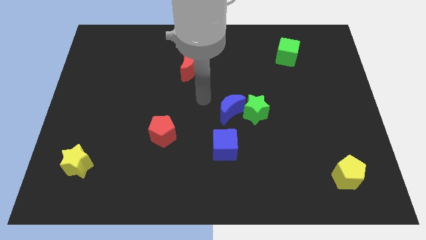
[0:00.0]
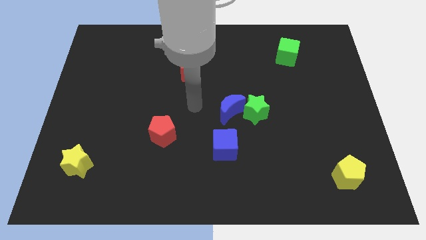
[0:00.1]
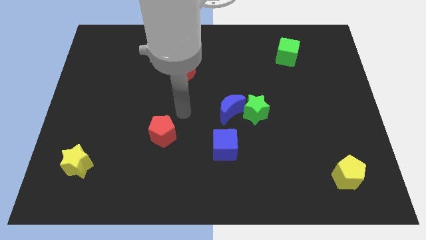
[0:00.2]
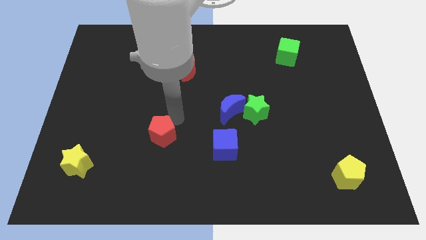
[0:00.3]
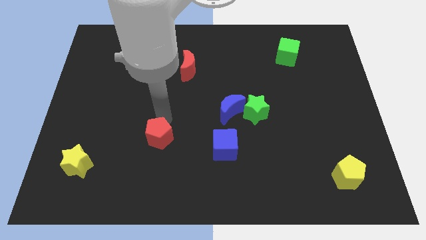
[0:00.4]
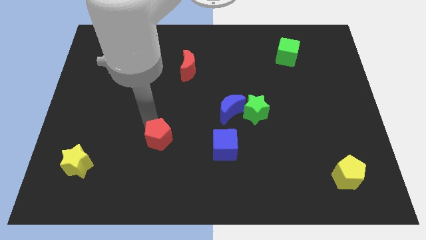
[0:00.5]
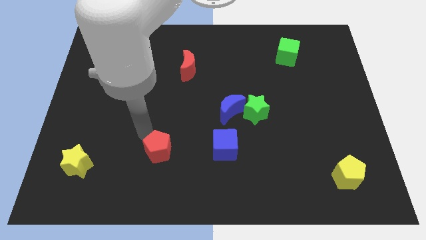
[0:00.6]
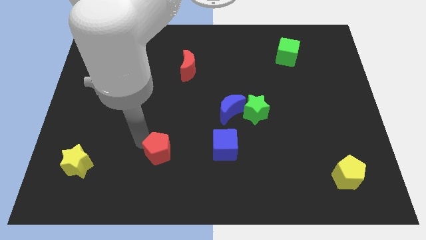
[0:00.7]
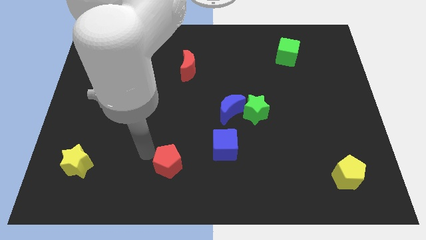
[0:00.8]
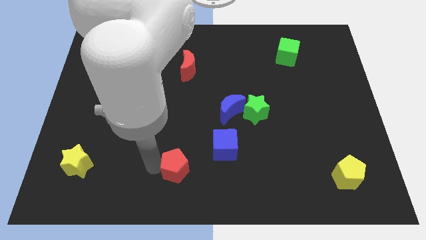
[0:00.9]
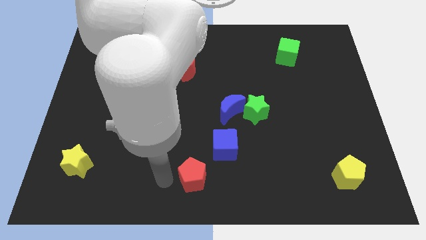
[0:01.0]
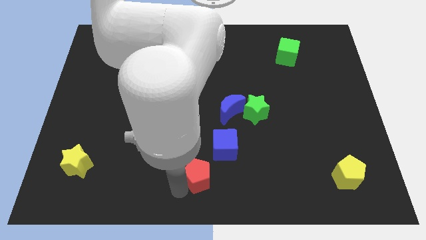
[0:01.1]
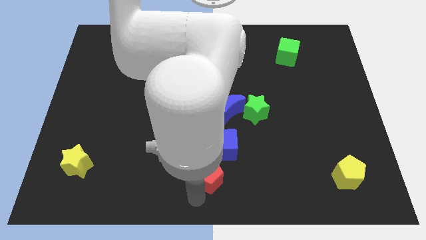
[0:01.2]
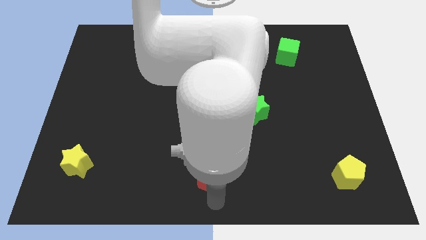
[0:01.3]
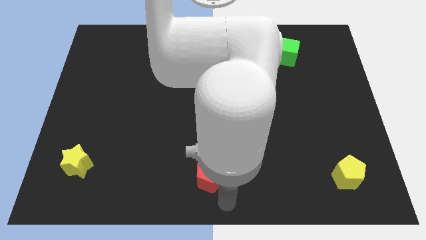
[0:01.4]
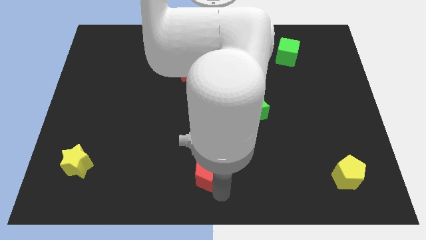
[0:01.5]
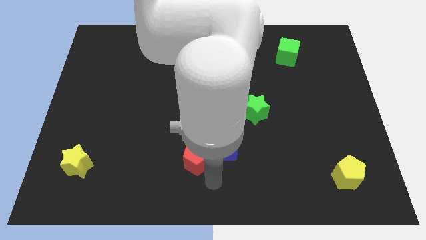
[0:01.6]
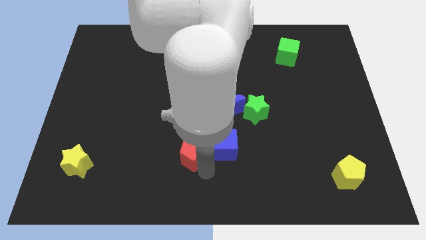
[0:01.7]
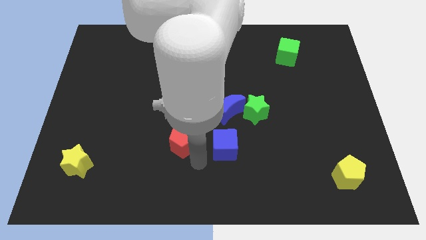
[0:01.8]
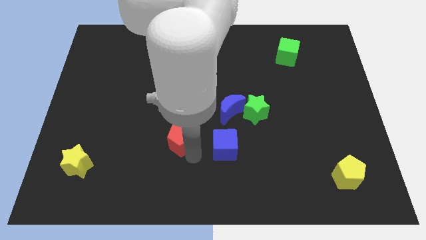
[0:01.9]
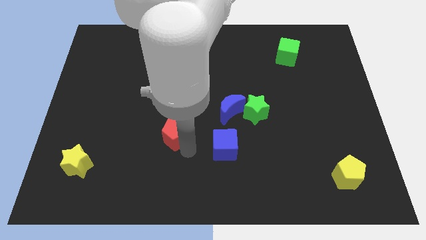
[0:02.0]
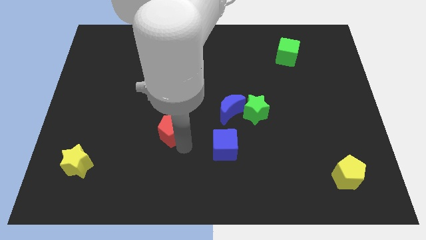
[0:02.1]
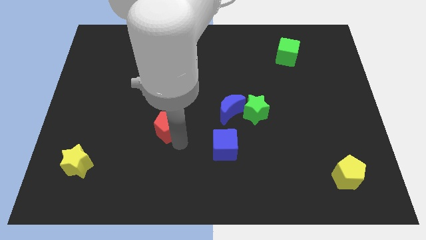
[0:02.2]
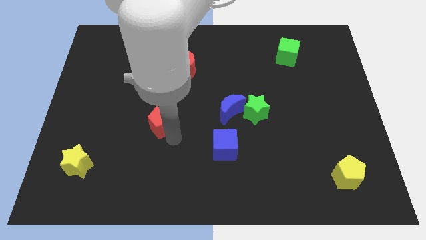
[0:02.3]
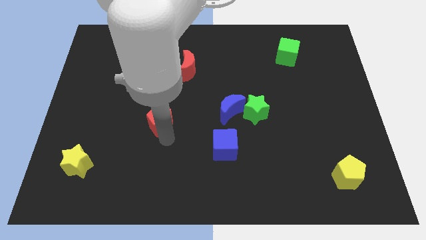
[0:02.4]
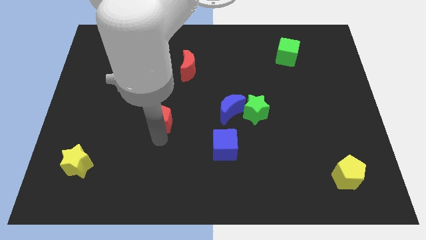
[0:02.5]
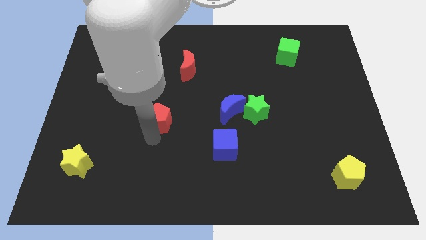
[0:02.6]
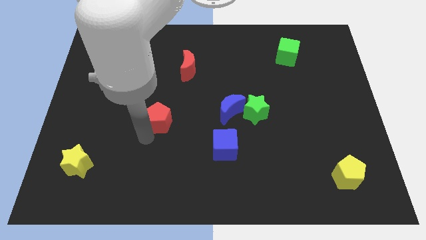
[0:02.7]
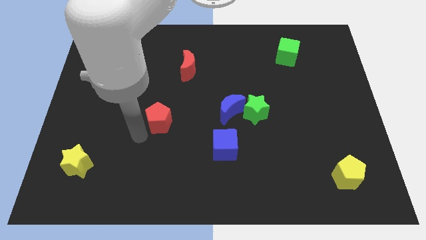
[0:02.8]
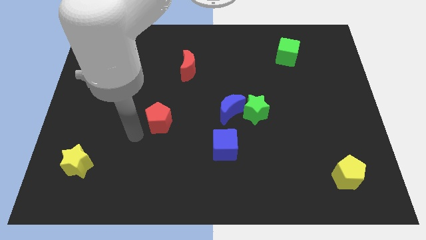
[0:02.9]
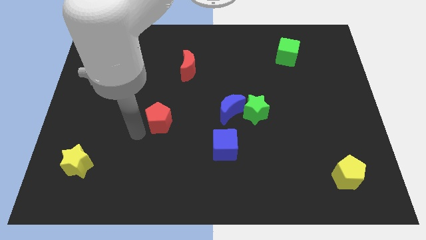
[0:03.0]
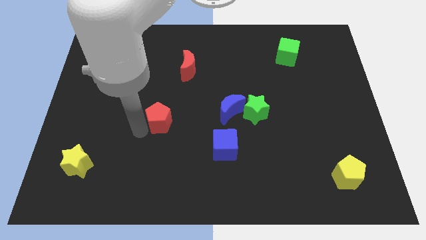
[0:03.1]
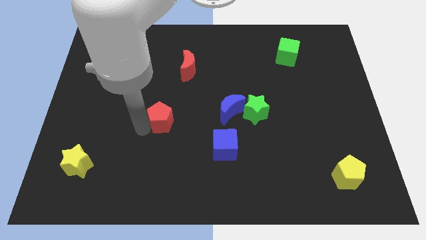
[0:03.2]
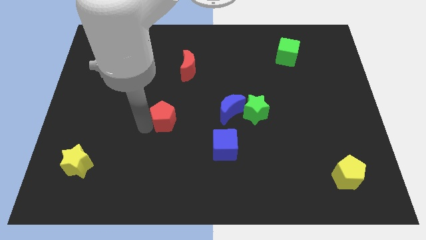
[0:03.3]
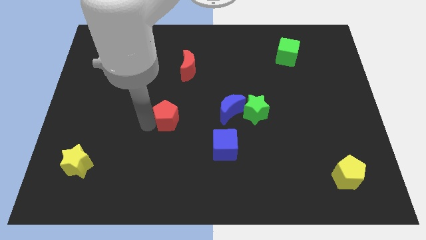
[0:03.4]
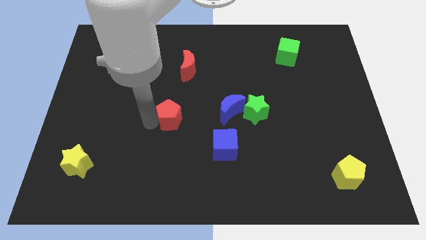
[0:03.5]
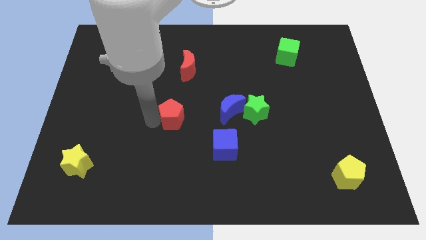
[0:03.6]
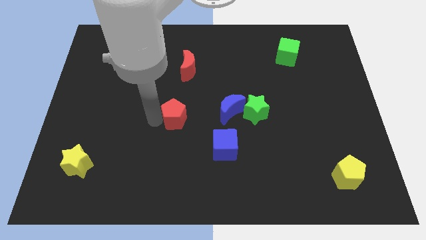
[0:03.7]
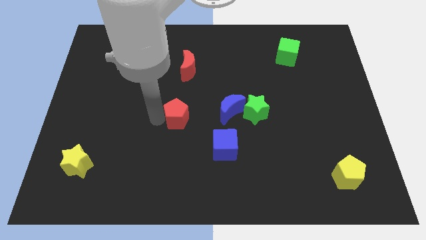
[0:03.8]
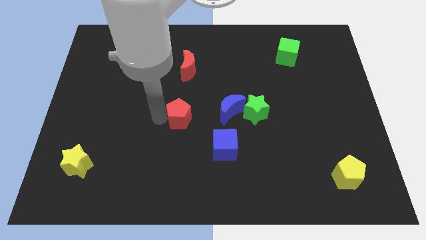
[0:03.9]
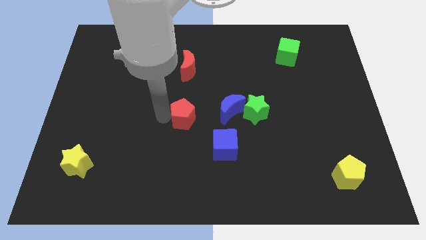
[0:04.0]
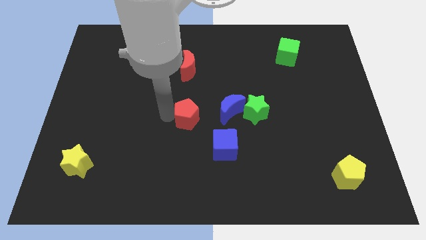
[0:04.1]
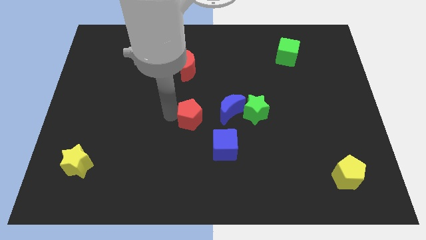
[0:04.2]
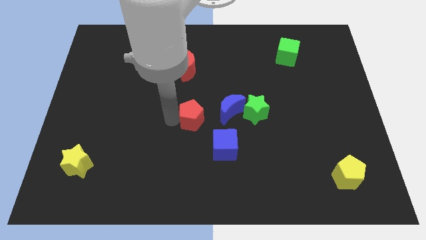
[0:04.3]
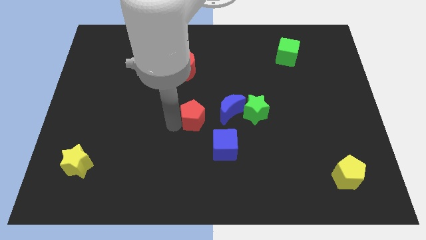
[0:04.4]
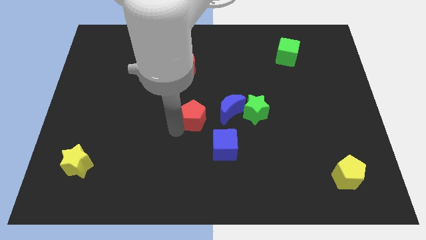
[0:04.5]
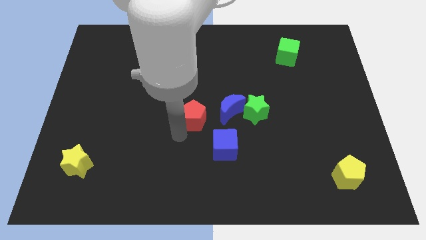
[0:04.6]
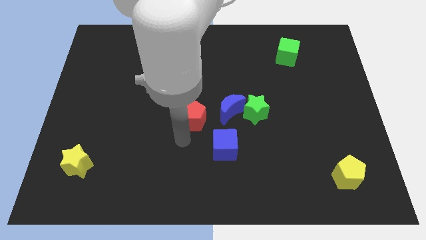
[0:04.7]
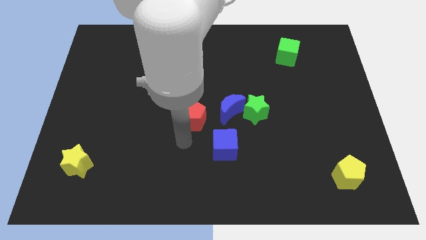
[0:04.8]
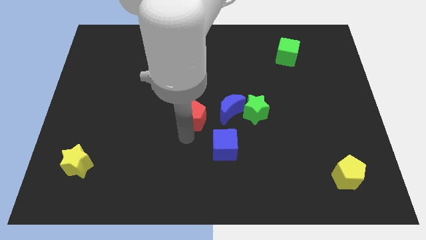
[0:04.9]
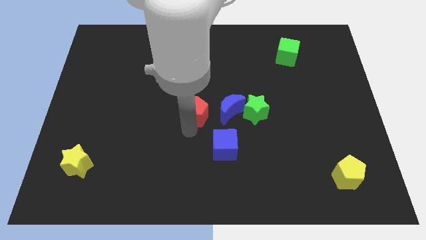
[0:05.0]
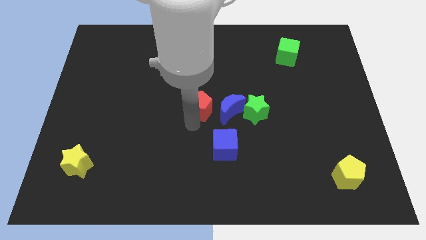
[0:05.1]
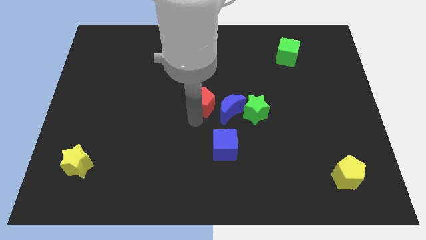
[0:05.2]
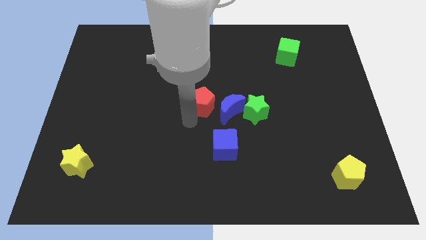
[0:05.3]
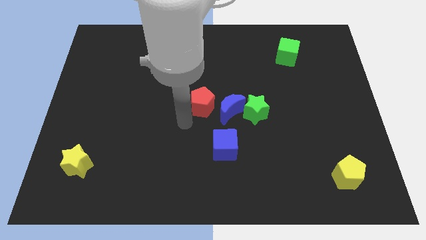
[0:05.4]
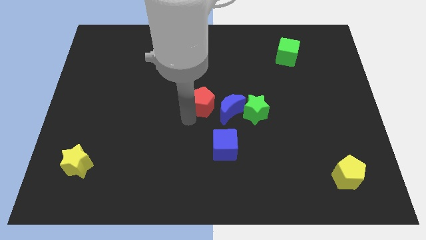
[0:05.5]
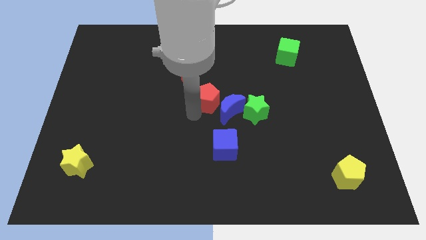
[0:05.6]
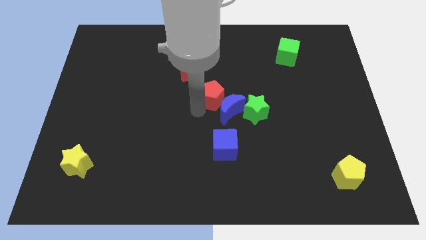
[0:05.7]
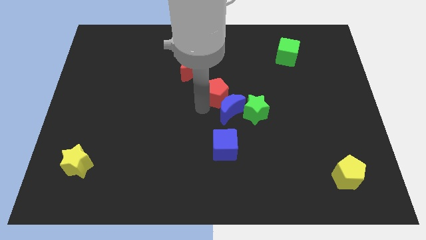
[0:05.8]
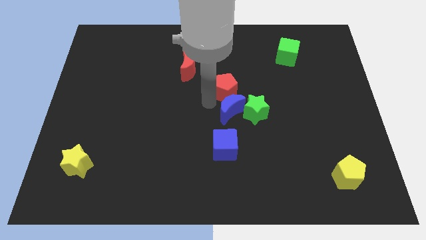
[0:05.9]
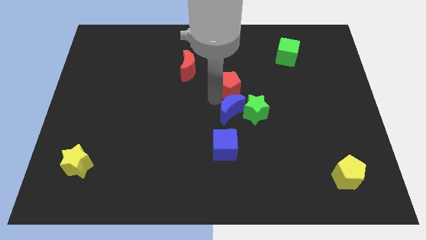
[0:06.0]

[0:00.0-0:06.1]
push the red pentagon up and then to the right

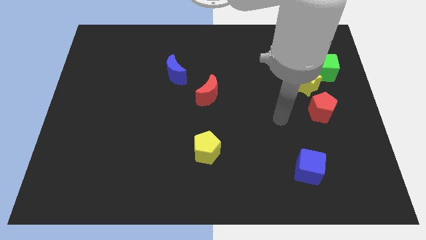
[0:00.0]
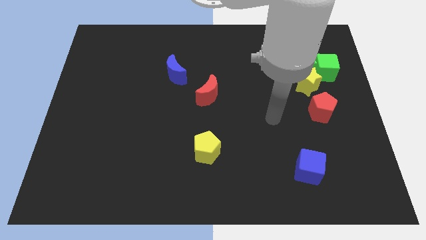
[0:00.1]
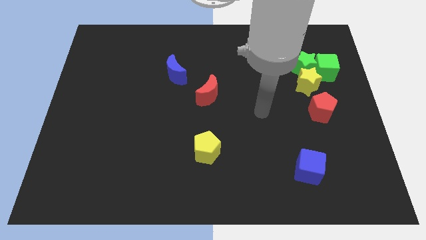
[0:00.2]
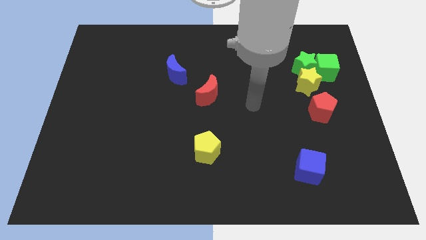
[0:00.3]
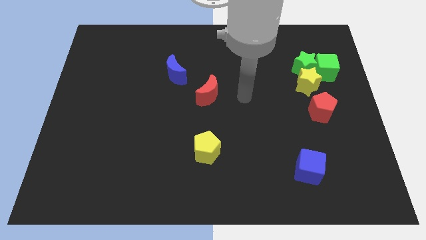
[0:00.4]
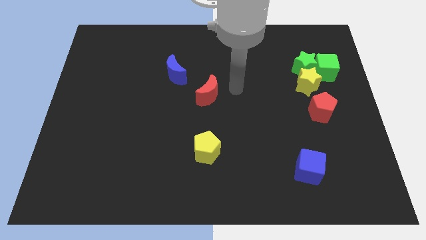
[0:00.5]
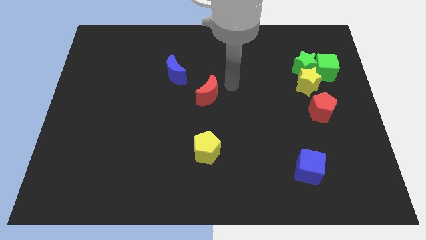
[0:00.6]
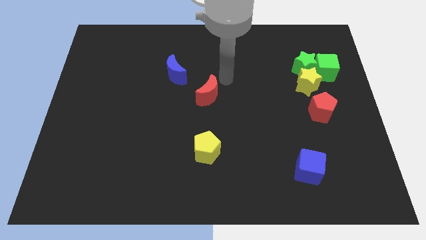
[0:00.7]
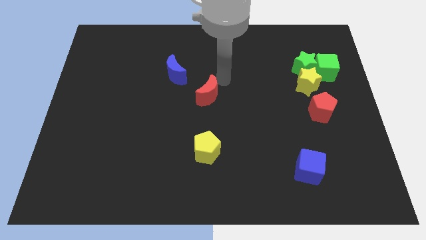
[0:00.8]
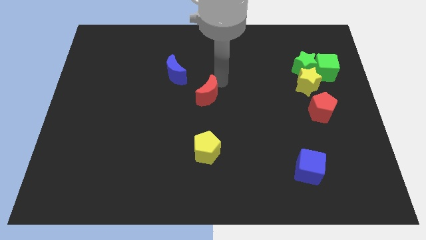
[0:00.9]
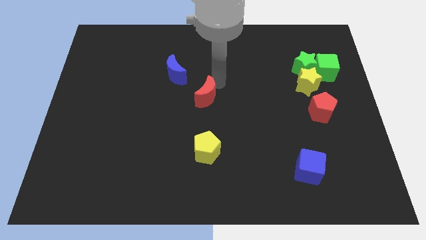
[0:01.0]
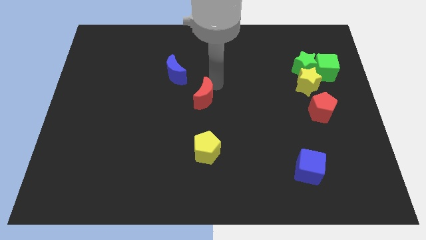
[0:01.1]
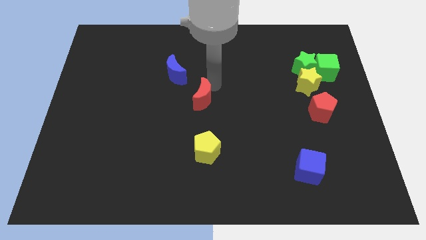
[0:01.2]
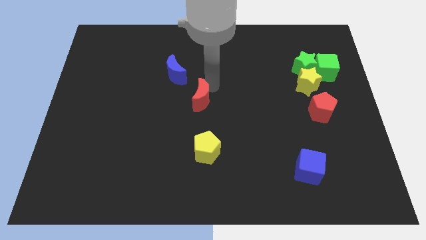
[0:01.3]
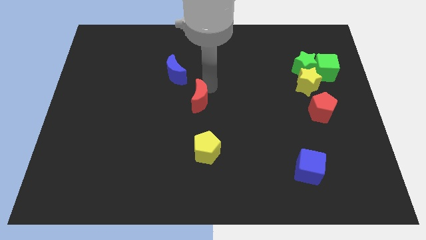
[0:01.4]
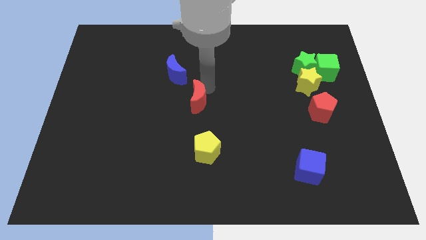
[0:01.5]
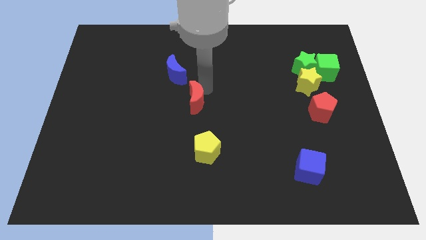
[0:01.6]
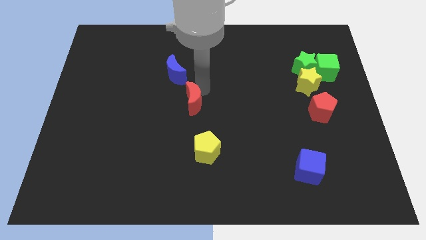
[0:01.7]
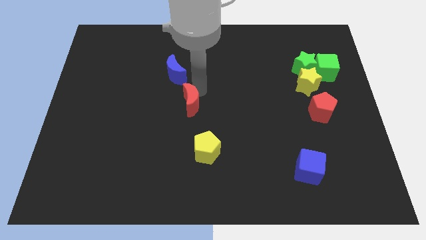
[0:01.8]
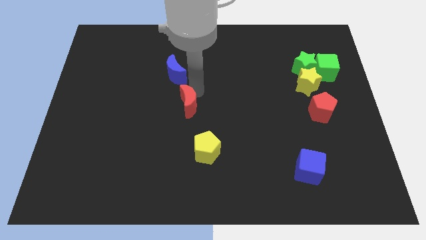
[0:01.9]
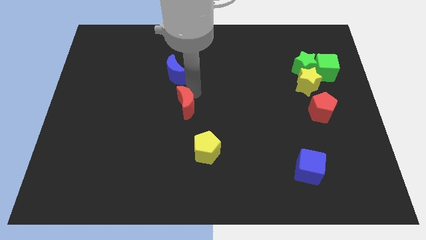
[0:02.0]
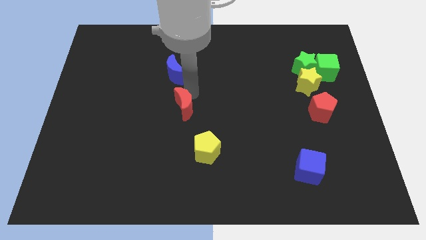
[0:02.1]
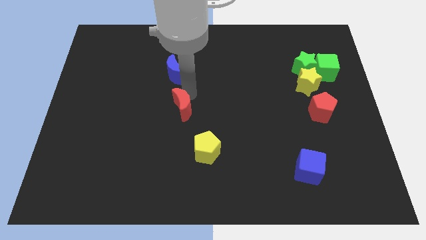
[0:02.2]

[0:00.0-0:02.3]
push the red moon down and then left a bit
